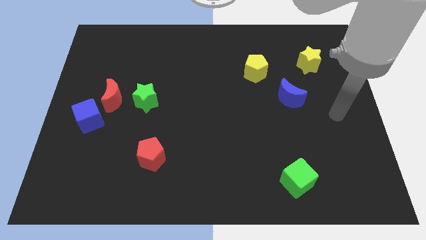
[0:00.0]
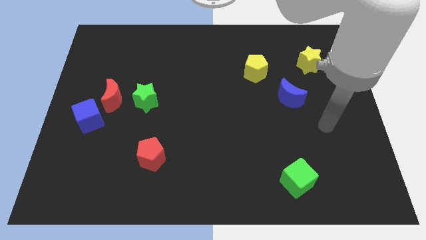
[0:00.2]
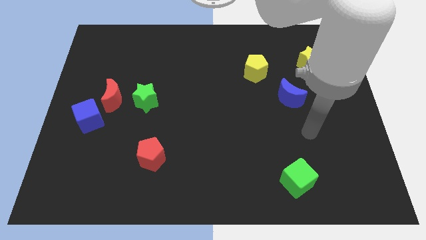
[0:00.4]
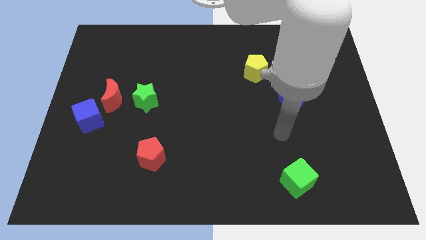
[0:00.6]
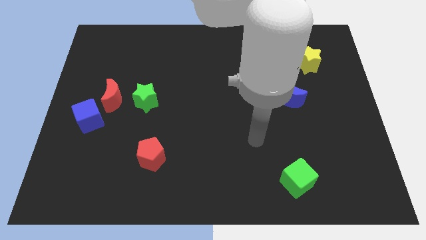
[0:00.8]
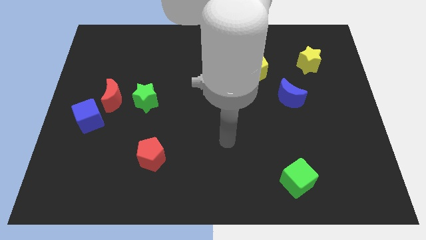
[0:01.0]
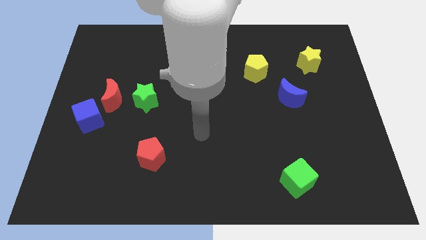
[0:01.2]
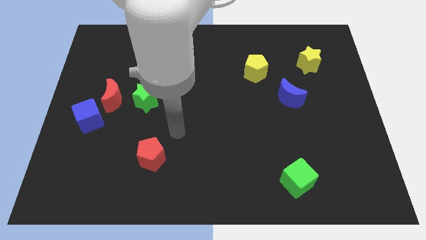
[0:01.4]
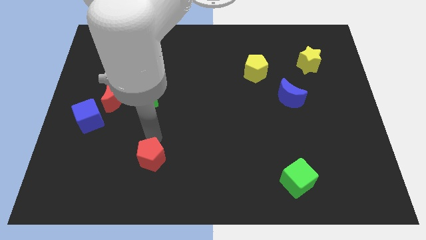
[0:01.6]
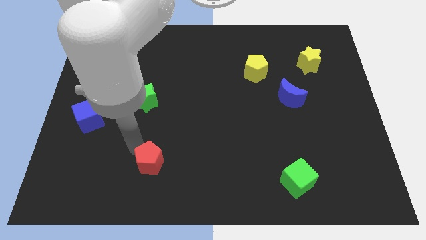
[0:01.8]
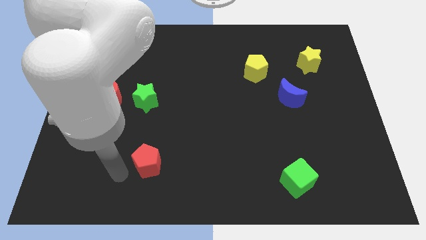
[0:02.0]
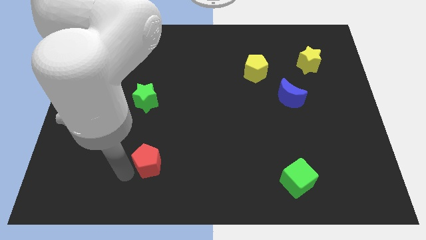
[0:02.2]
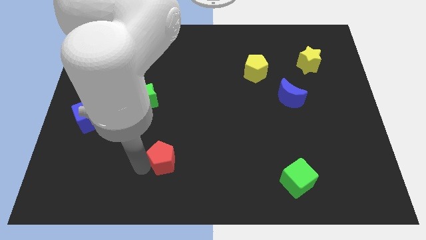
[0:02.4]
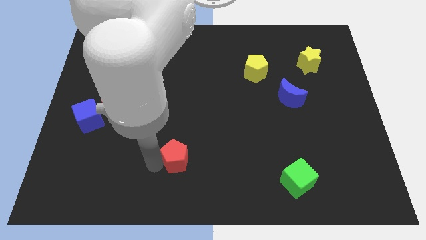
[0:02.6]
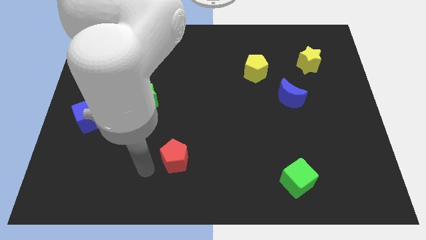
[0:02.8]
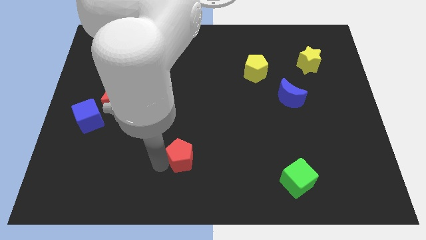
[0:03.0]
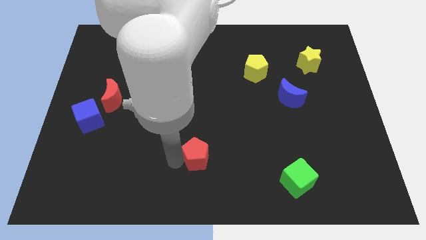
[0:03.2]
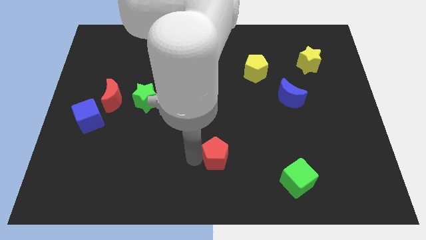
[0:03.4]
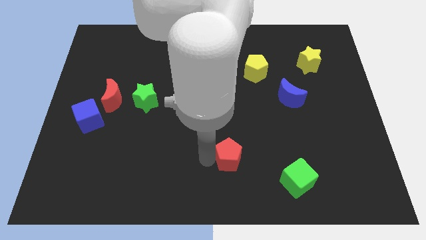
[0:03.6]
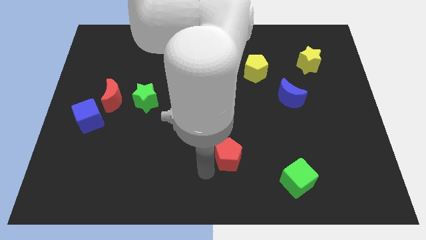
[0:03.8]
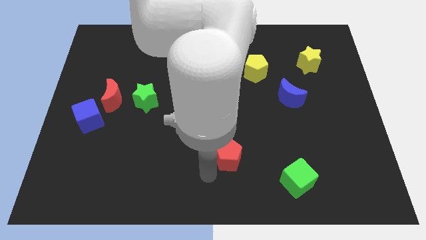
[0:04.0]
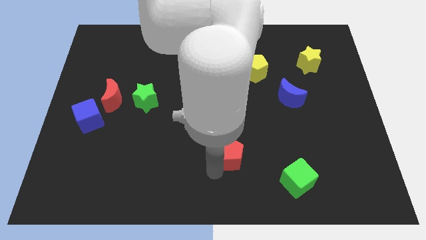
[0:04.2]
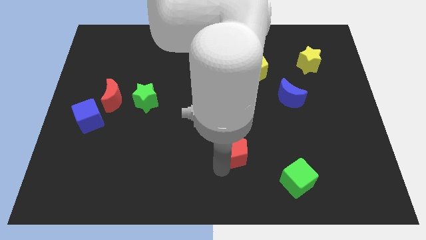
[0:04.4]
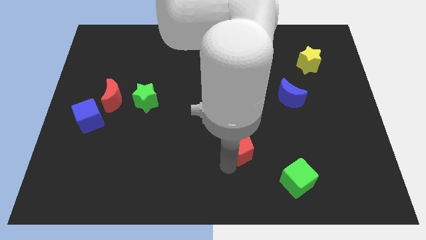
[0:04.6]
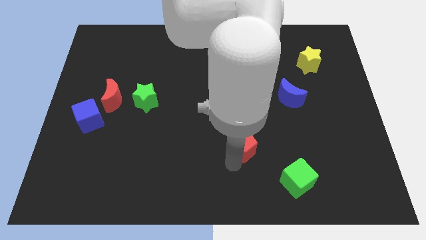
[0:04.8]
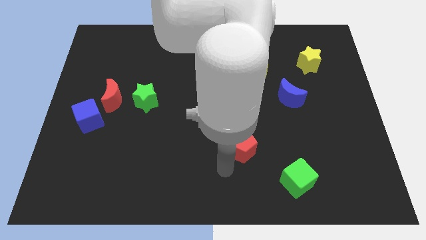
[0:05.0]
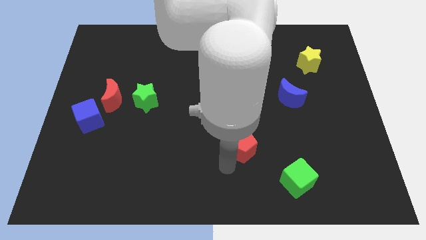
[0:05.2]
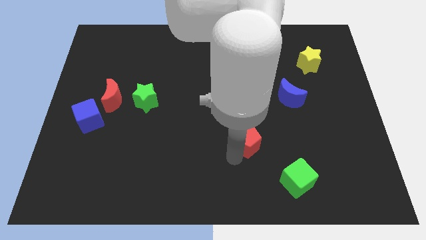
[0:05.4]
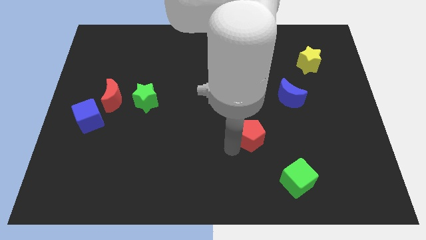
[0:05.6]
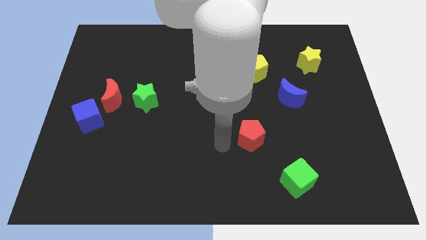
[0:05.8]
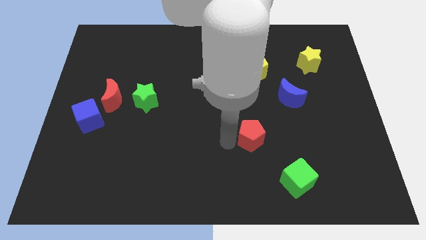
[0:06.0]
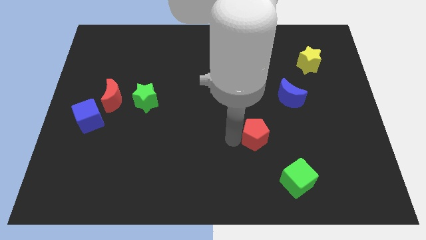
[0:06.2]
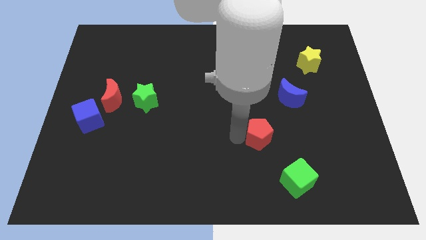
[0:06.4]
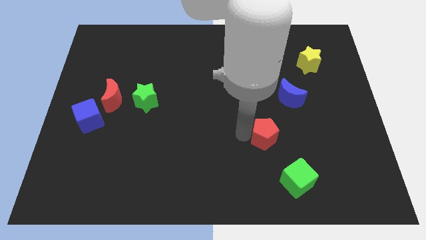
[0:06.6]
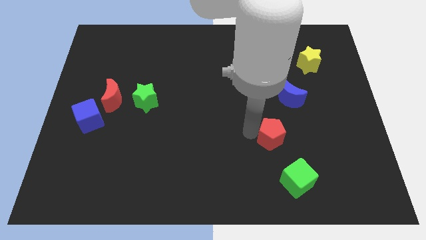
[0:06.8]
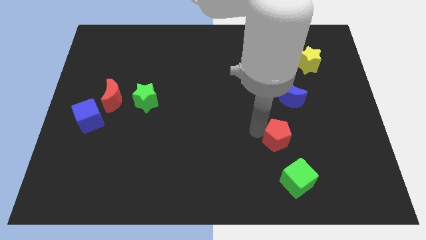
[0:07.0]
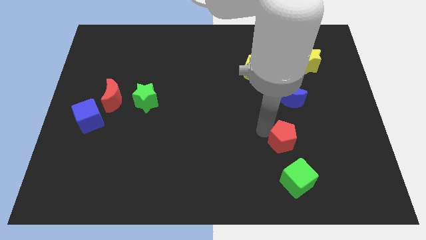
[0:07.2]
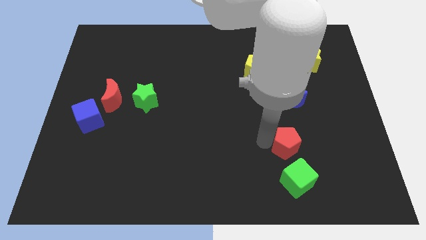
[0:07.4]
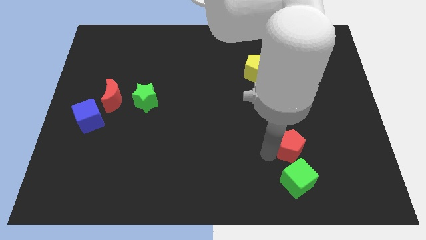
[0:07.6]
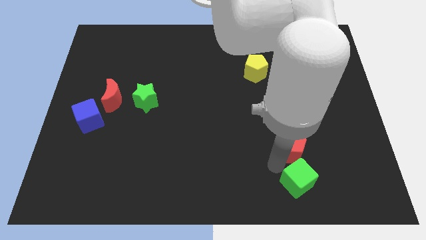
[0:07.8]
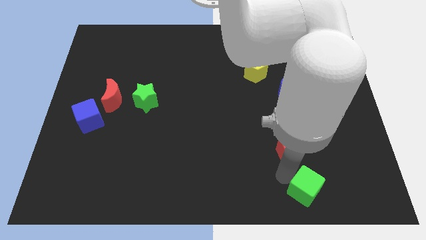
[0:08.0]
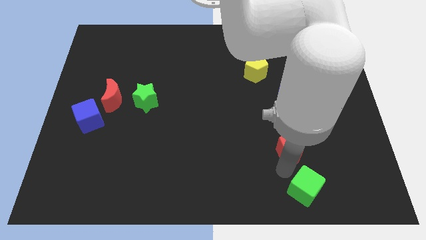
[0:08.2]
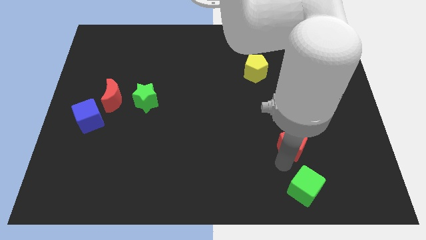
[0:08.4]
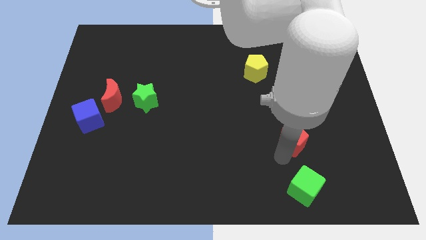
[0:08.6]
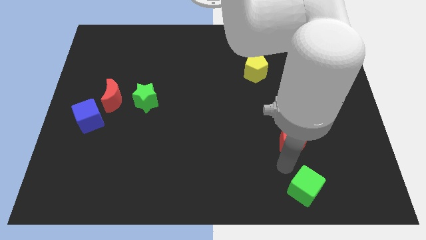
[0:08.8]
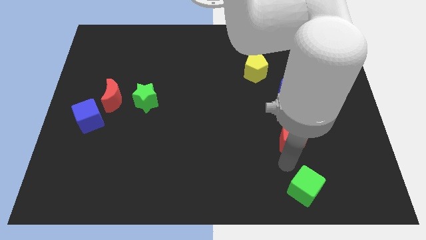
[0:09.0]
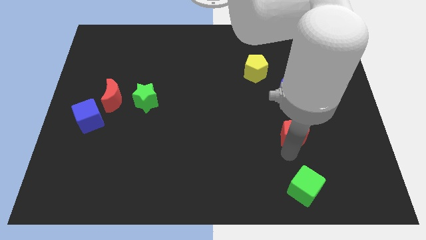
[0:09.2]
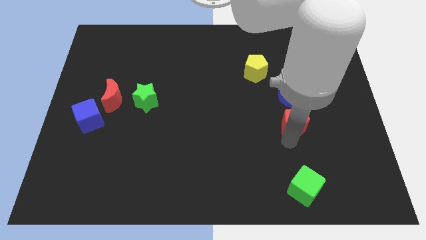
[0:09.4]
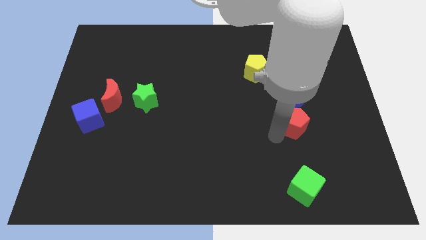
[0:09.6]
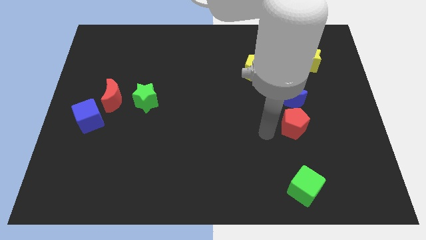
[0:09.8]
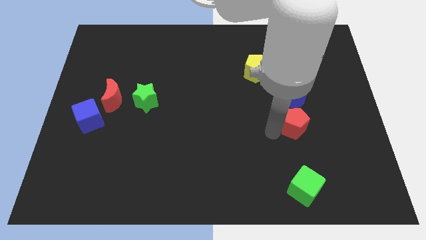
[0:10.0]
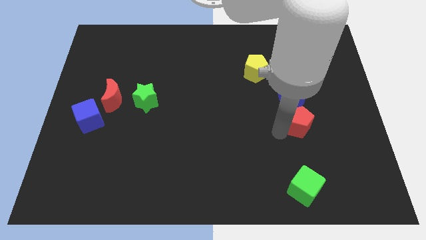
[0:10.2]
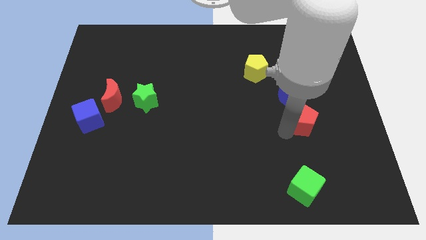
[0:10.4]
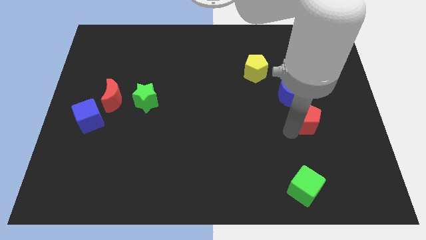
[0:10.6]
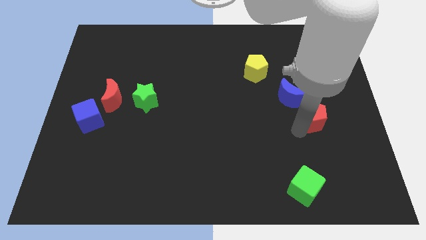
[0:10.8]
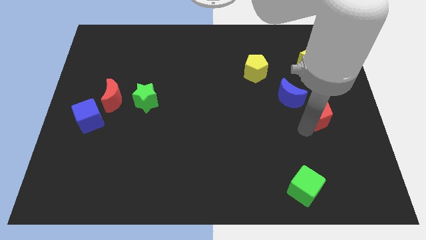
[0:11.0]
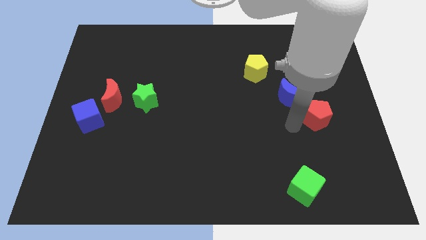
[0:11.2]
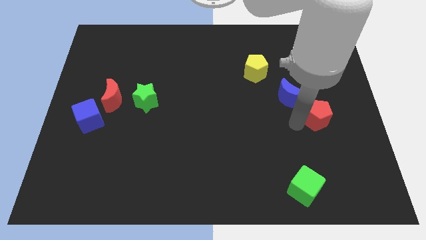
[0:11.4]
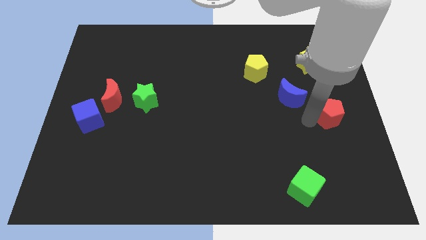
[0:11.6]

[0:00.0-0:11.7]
put the red pentagon to the center right
